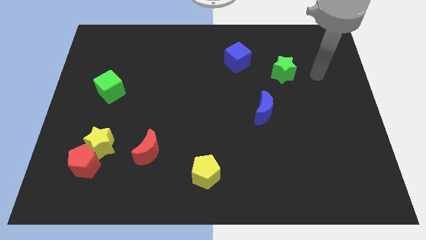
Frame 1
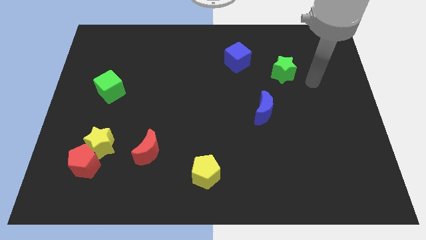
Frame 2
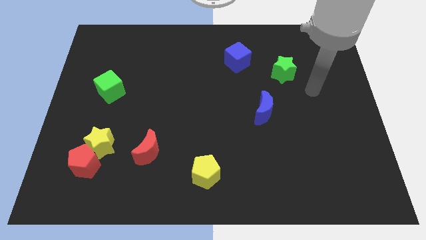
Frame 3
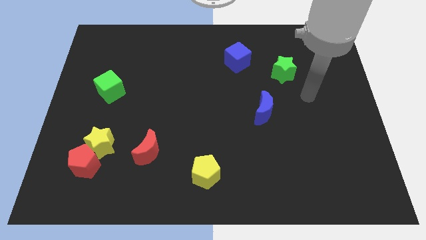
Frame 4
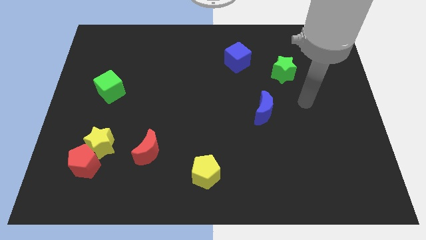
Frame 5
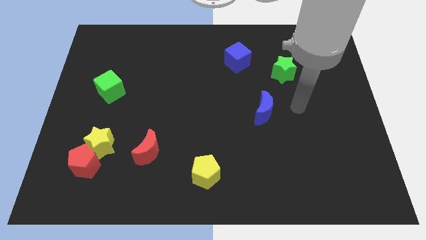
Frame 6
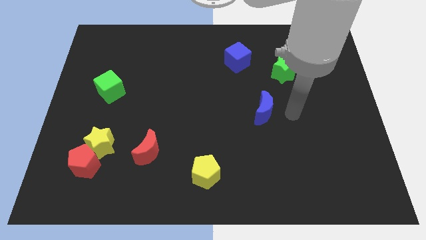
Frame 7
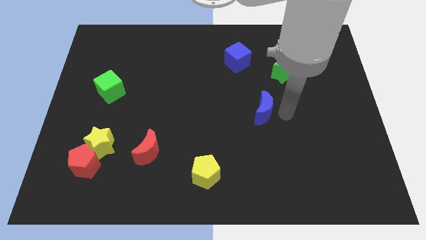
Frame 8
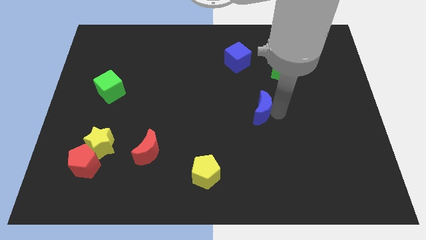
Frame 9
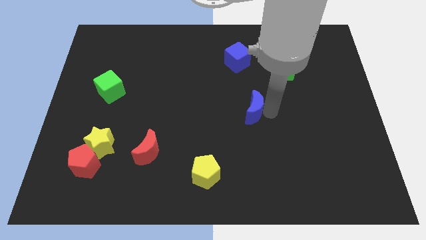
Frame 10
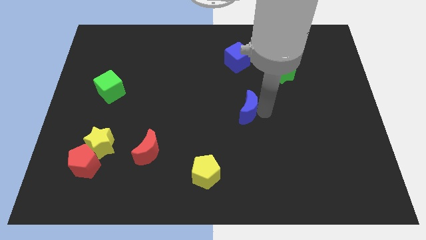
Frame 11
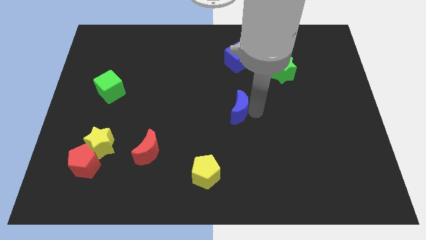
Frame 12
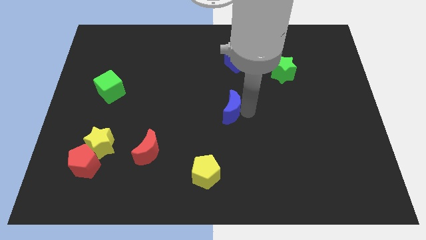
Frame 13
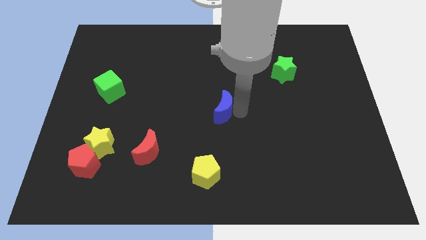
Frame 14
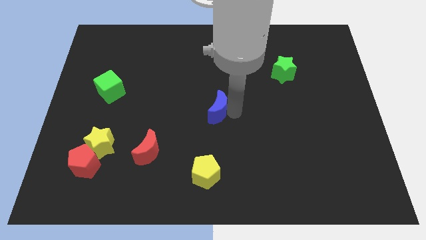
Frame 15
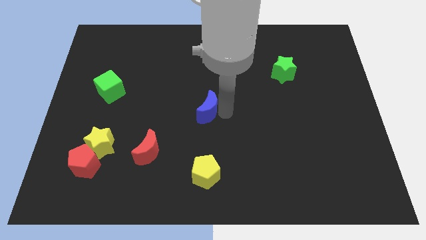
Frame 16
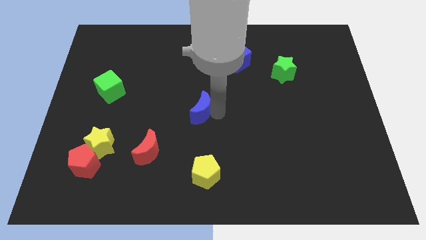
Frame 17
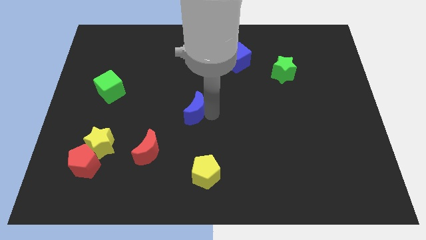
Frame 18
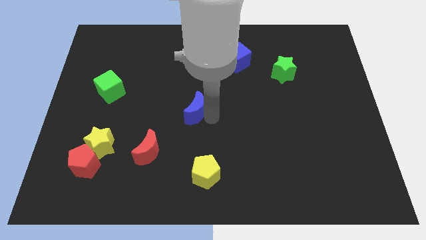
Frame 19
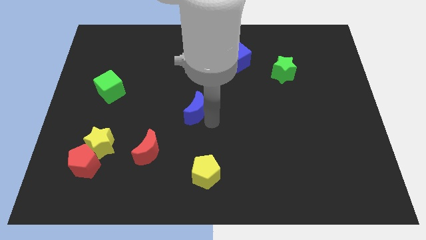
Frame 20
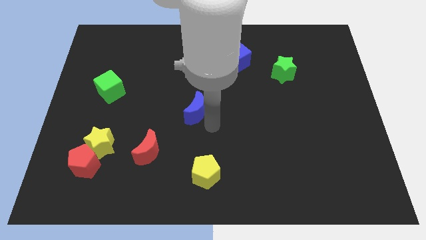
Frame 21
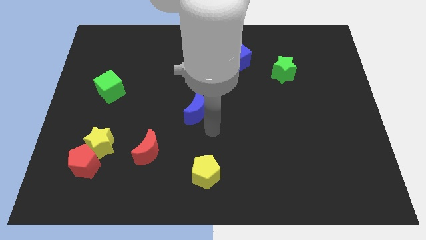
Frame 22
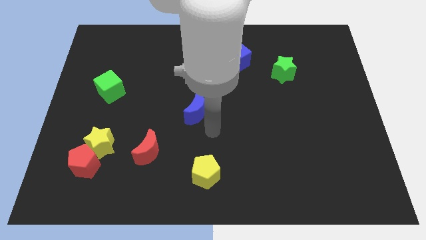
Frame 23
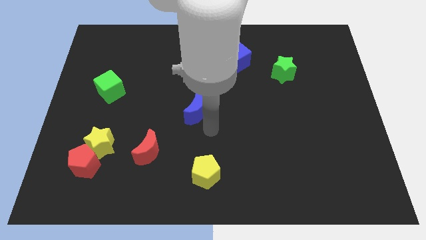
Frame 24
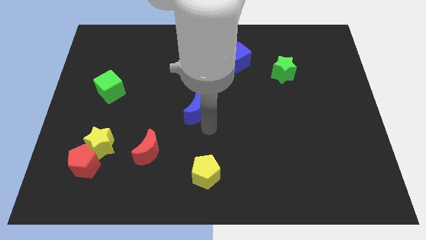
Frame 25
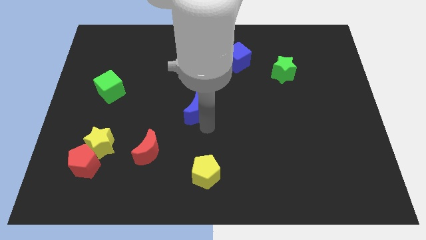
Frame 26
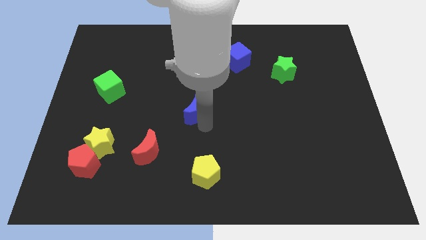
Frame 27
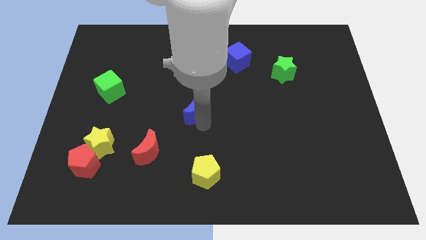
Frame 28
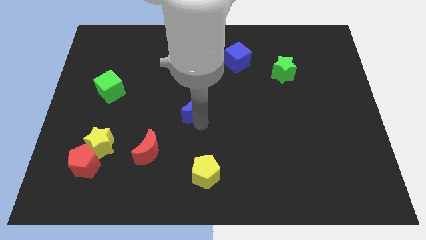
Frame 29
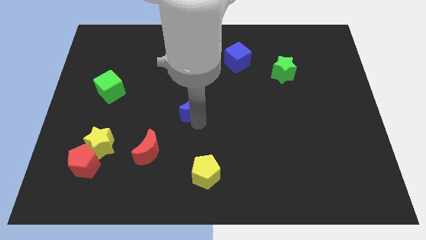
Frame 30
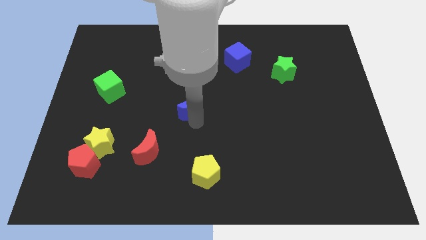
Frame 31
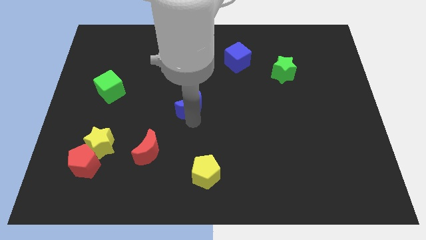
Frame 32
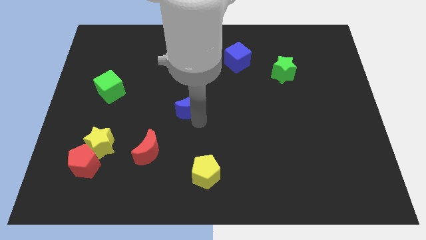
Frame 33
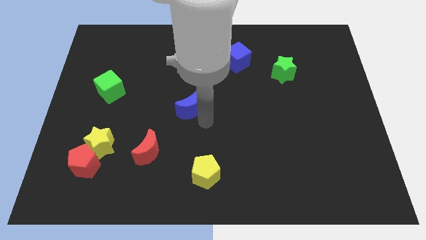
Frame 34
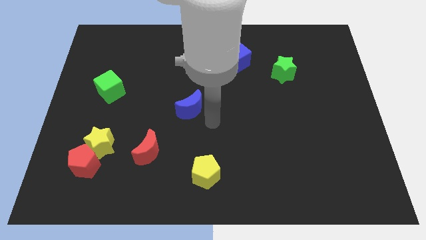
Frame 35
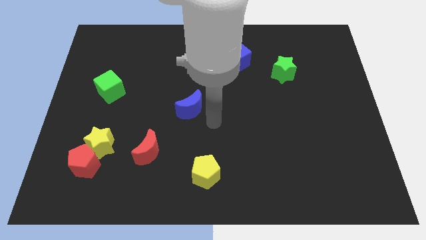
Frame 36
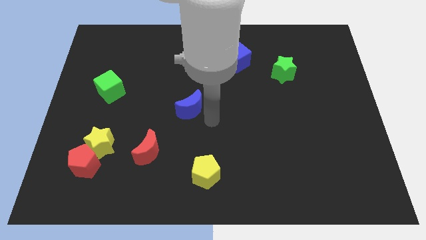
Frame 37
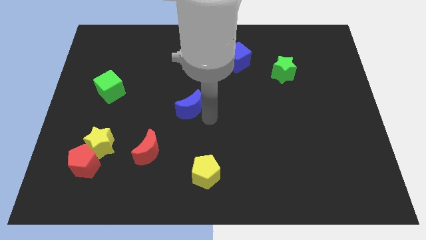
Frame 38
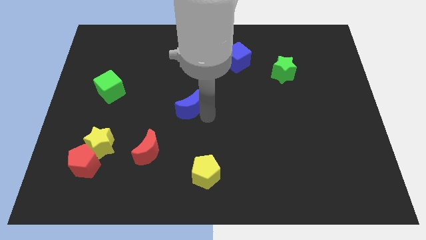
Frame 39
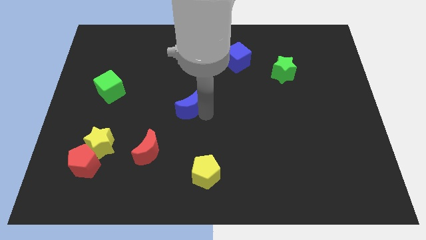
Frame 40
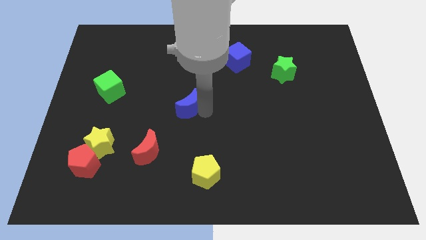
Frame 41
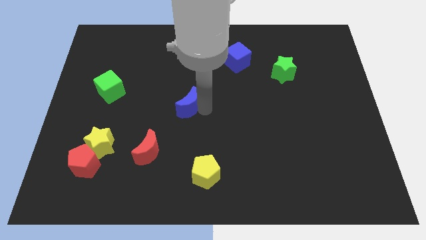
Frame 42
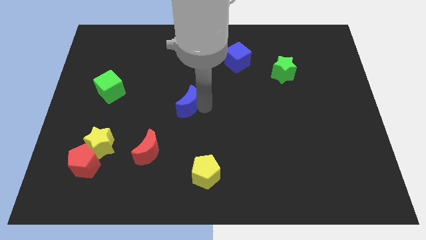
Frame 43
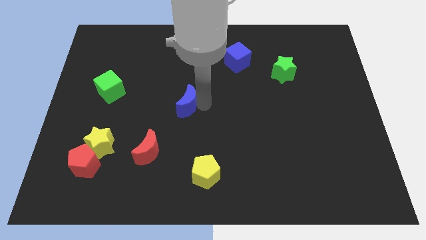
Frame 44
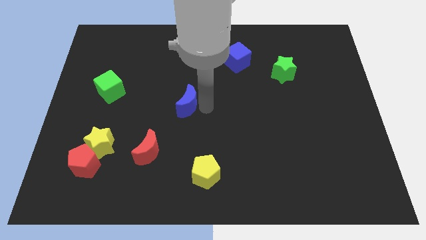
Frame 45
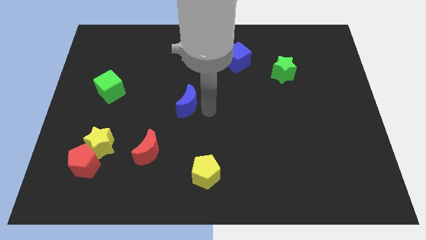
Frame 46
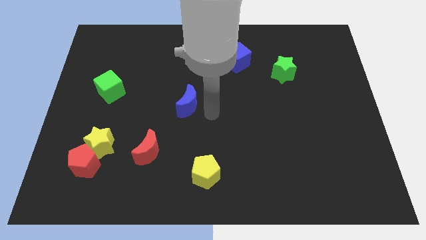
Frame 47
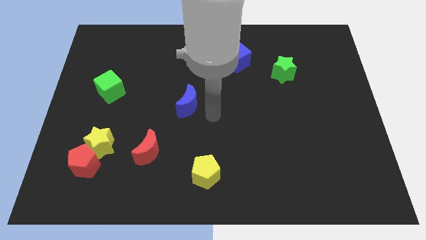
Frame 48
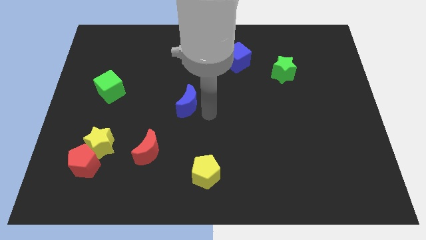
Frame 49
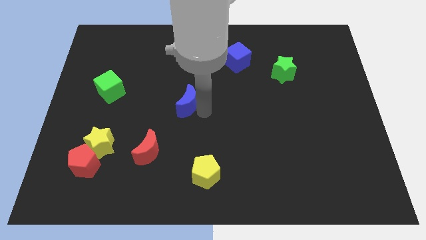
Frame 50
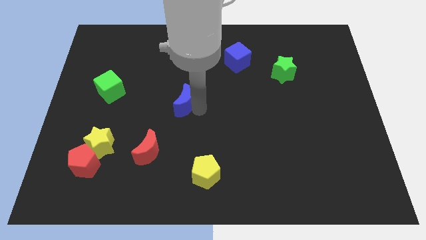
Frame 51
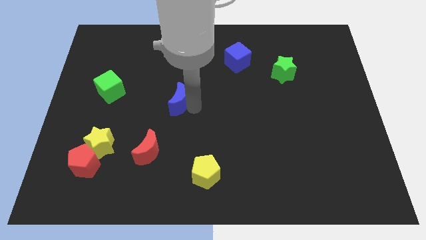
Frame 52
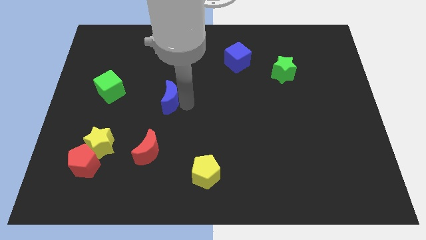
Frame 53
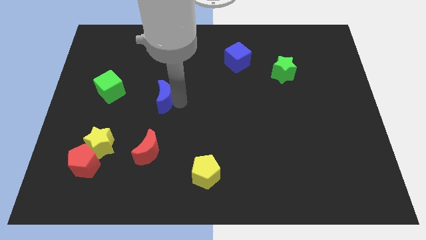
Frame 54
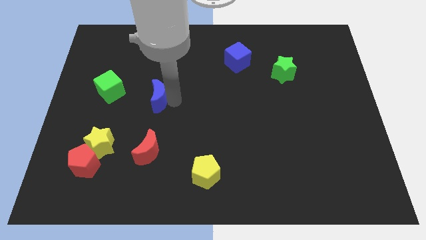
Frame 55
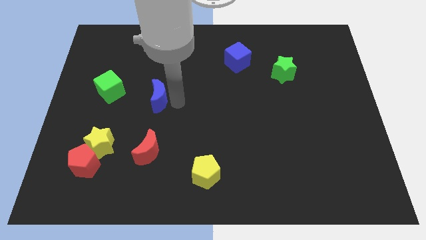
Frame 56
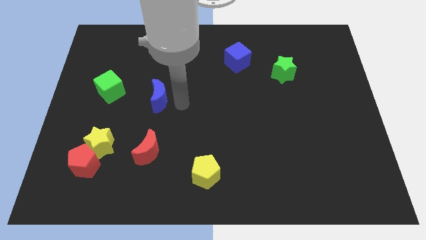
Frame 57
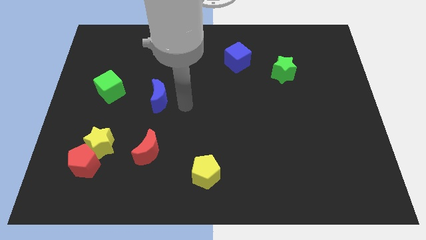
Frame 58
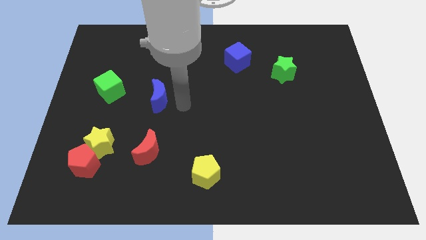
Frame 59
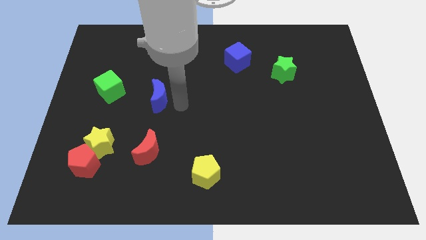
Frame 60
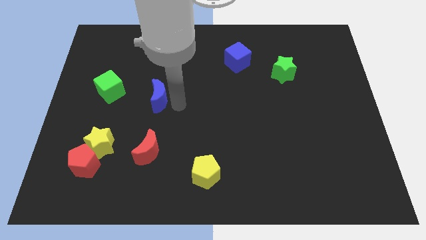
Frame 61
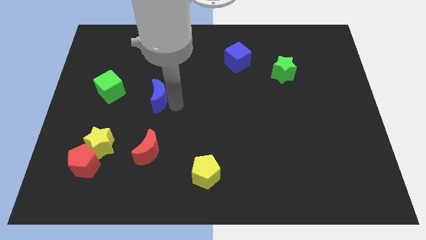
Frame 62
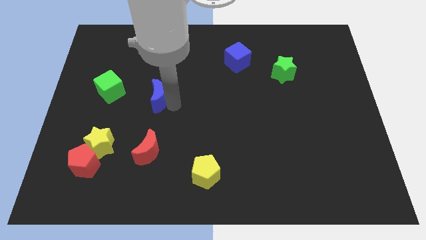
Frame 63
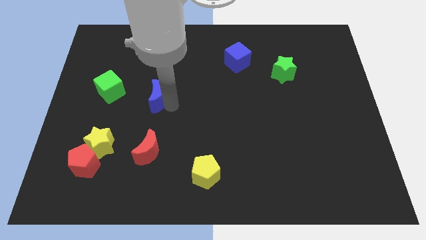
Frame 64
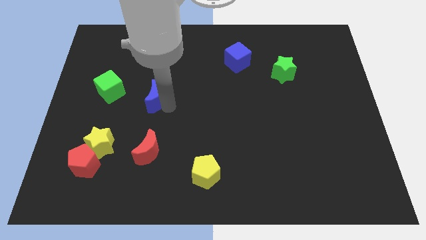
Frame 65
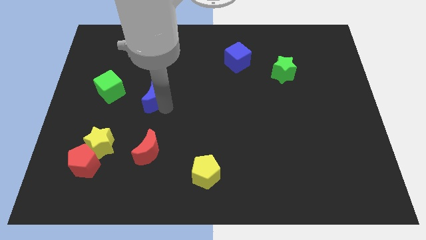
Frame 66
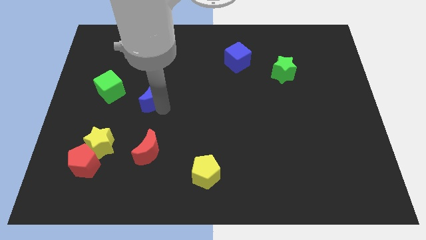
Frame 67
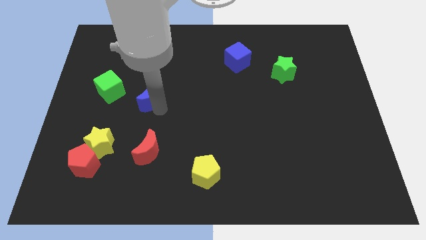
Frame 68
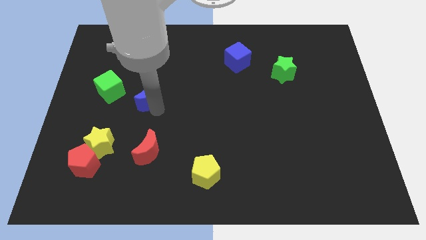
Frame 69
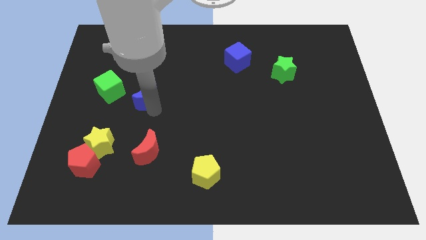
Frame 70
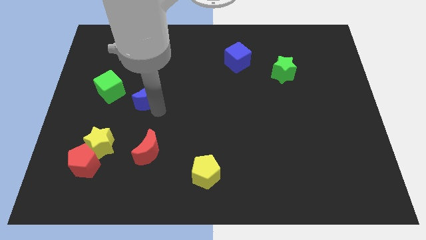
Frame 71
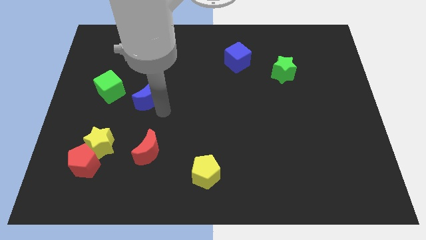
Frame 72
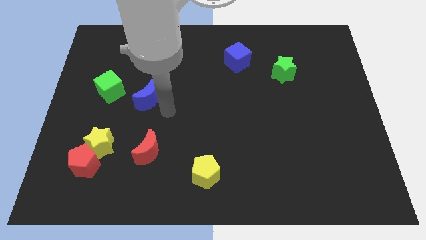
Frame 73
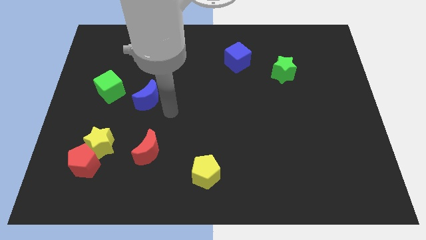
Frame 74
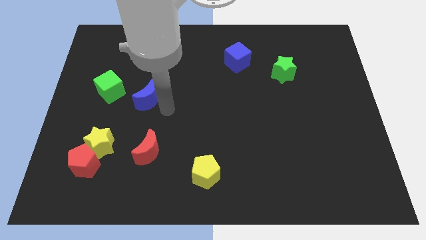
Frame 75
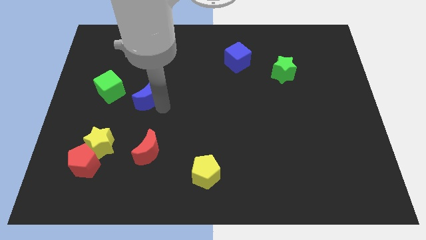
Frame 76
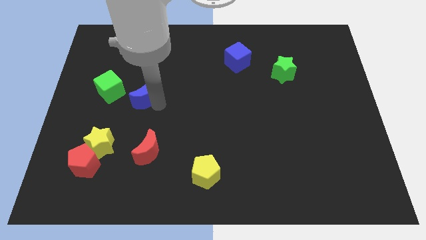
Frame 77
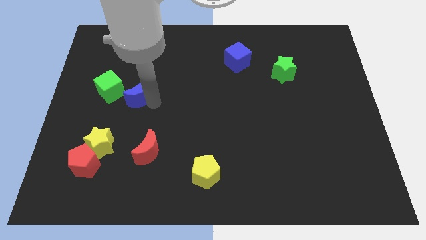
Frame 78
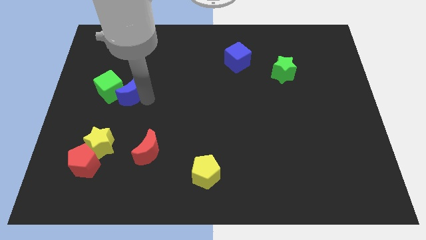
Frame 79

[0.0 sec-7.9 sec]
slide the blue moon close to the green cube

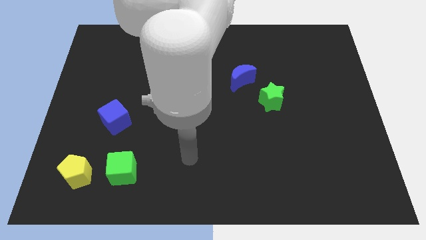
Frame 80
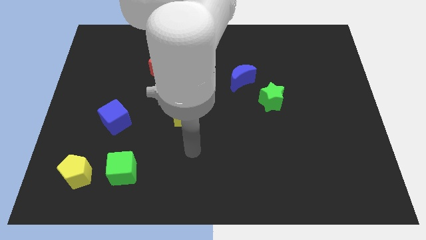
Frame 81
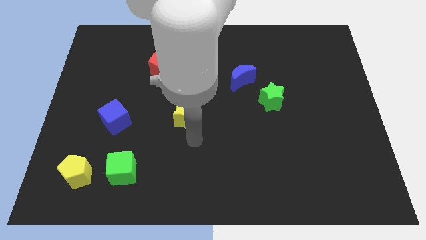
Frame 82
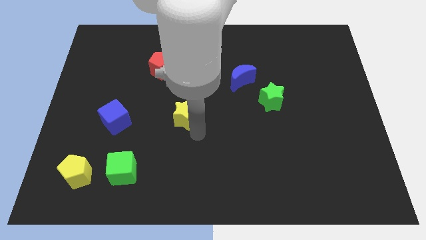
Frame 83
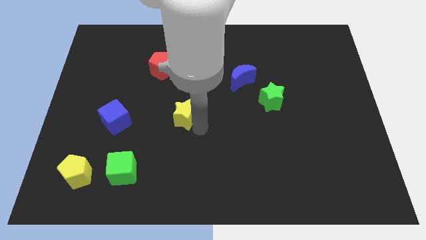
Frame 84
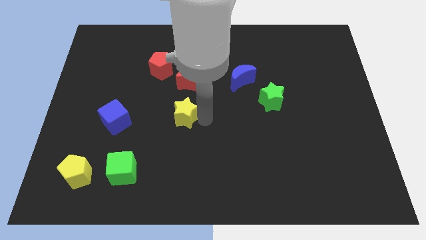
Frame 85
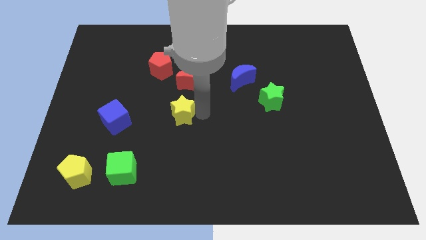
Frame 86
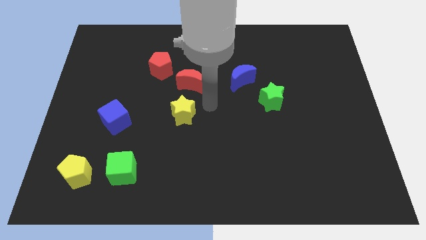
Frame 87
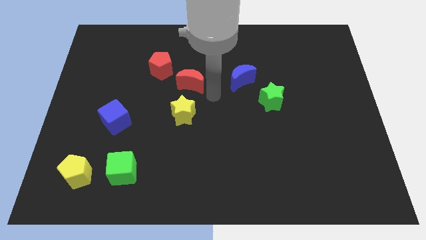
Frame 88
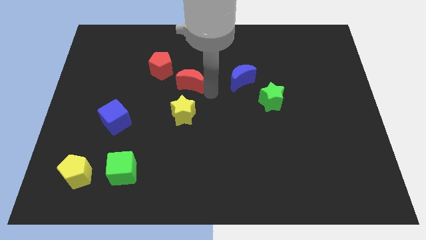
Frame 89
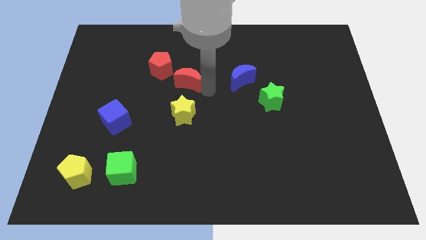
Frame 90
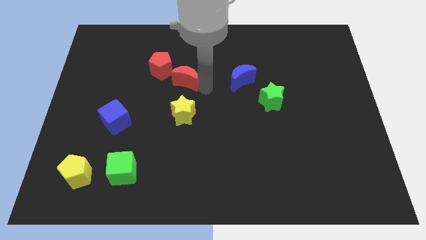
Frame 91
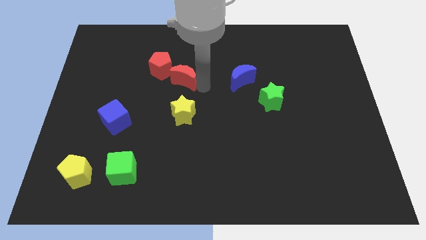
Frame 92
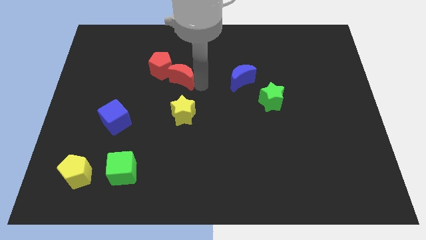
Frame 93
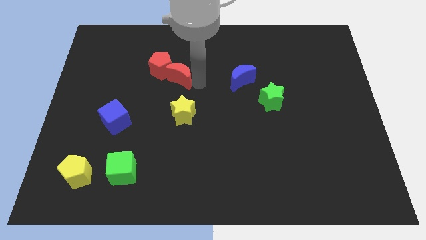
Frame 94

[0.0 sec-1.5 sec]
push the red moon close to the red pentagon
